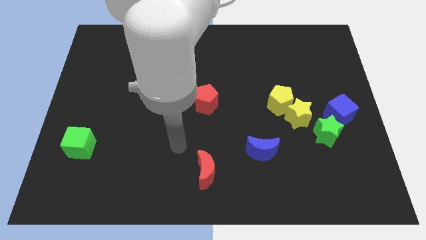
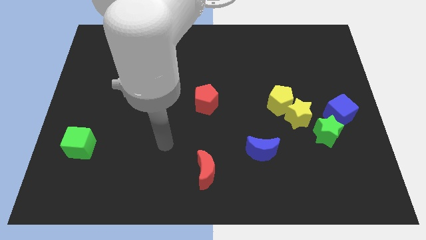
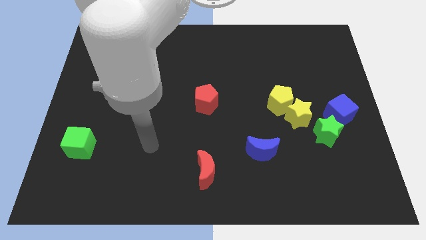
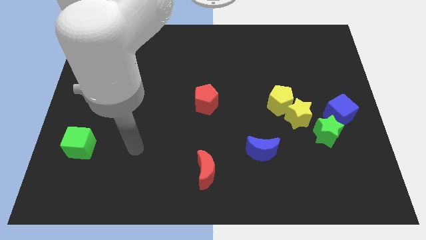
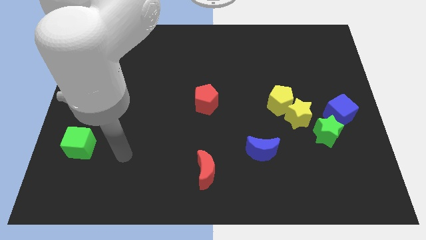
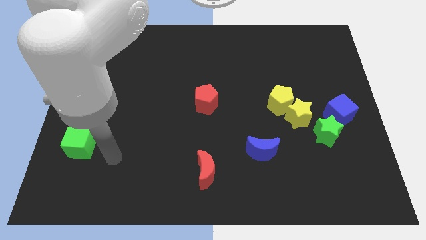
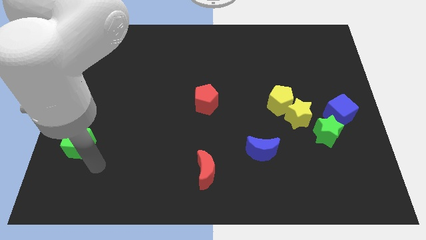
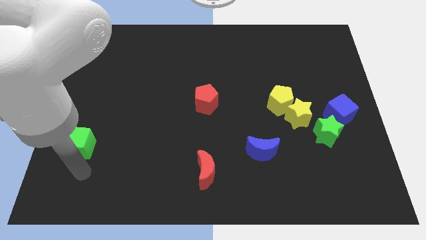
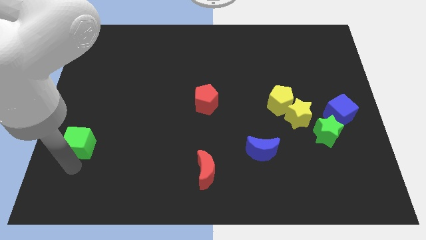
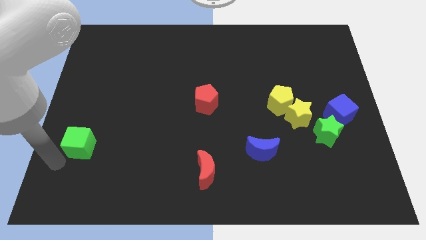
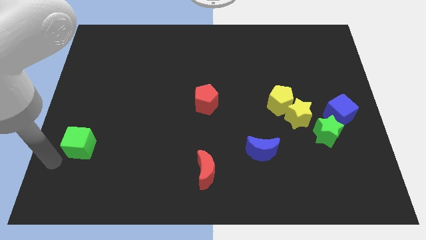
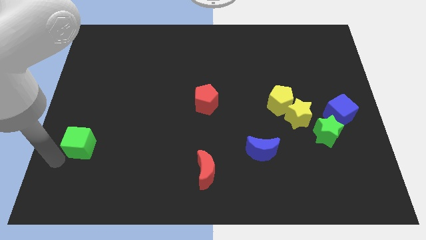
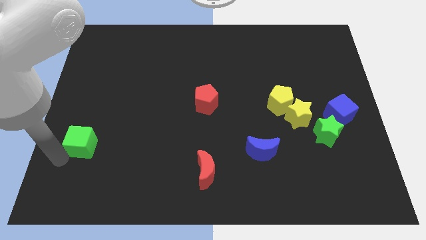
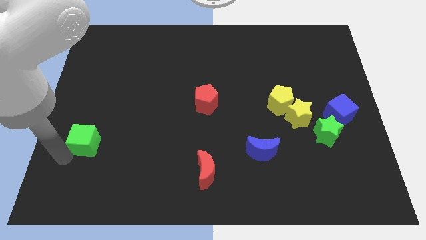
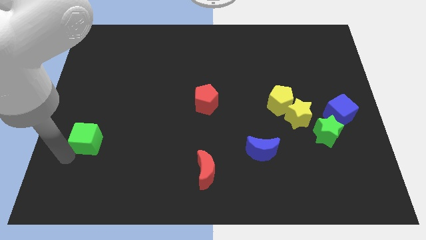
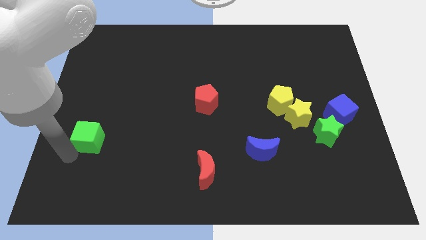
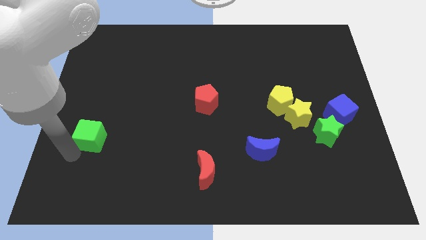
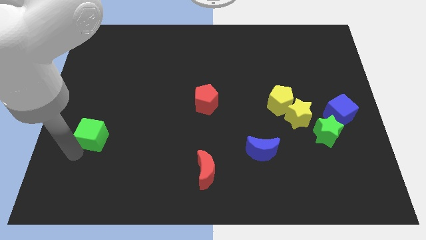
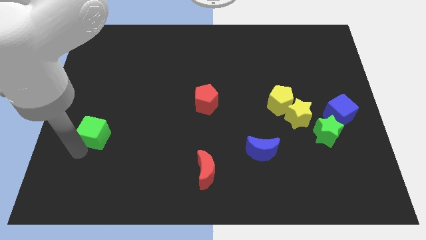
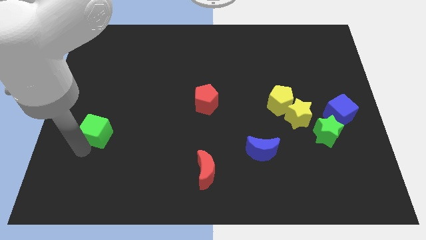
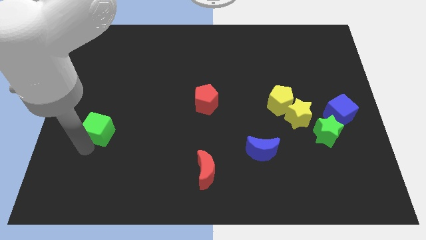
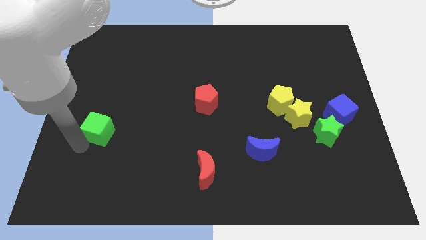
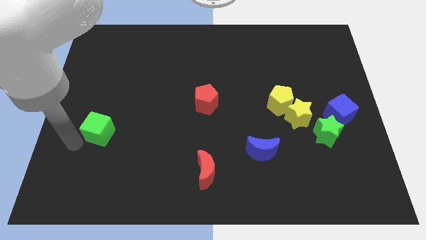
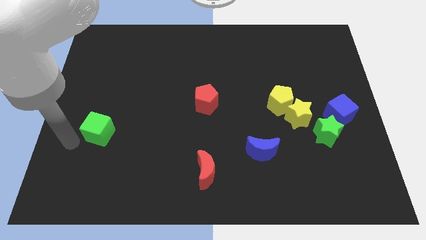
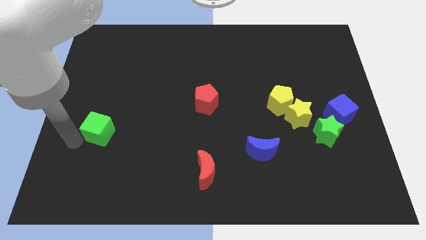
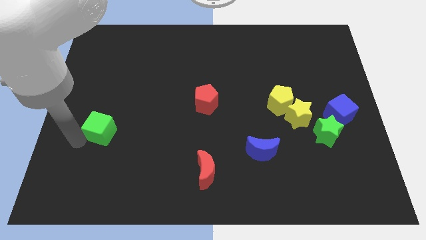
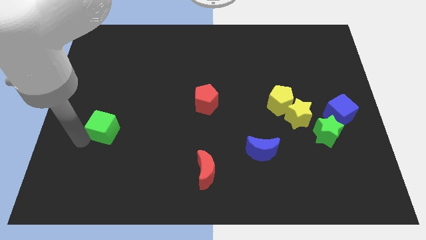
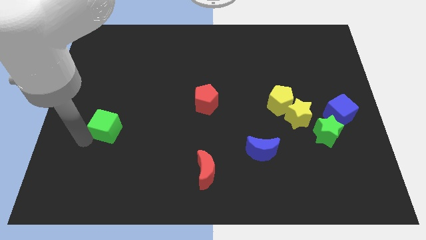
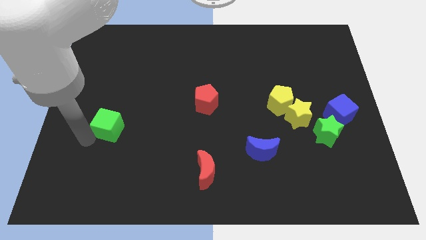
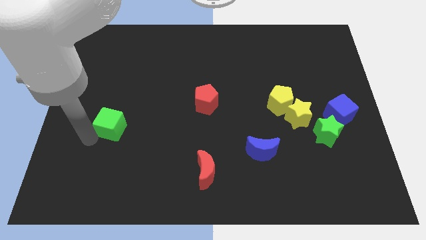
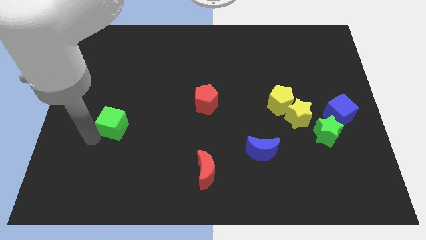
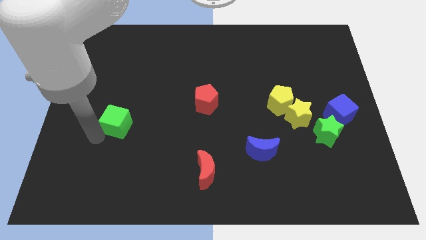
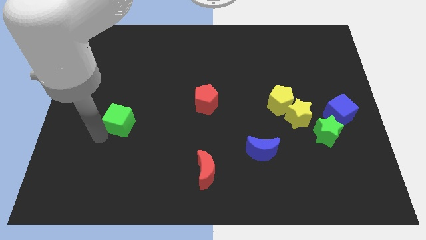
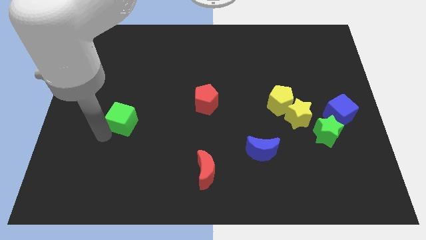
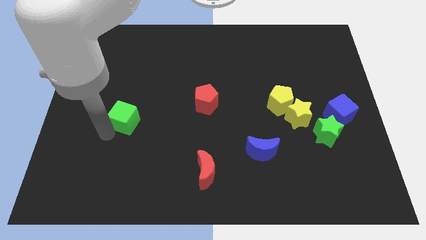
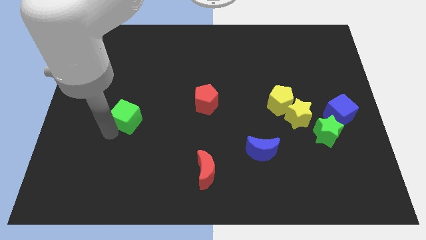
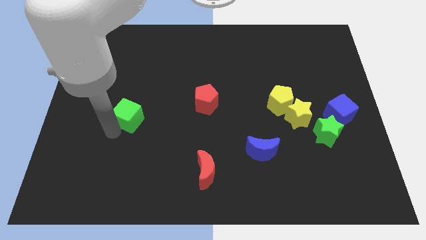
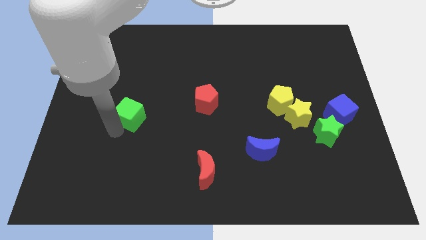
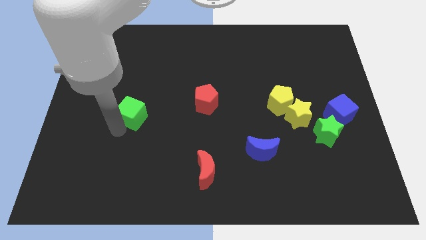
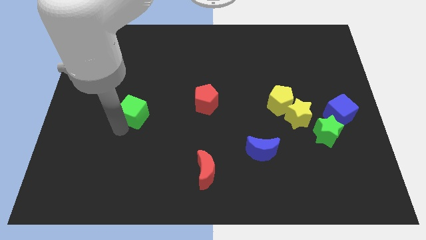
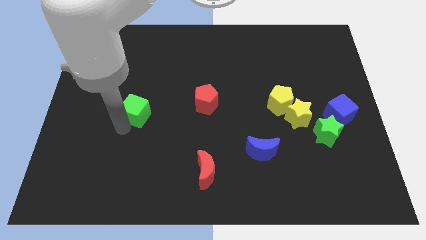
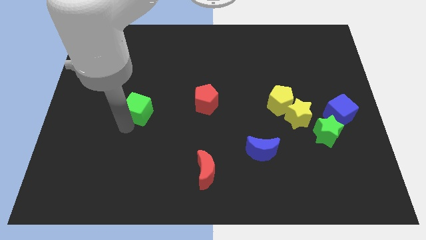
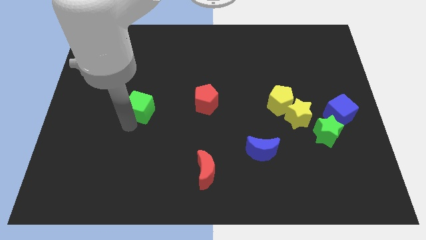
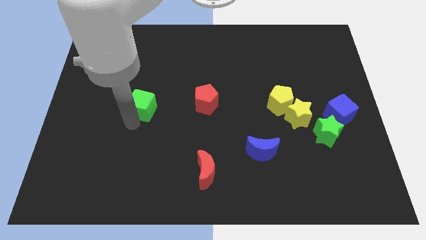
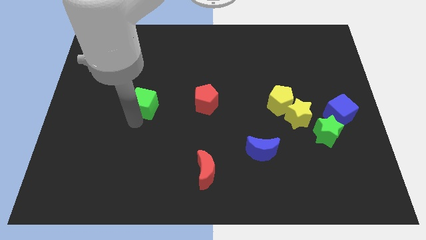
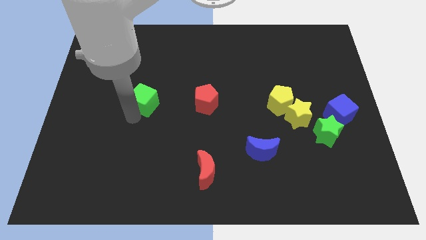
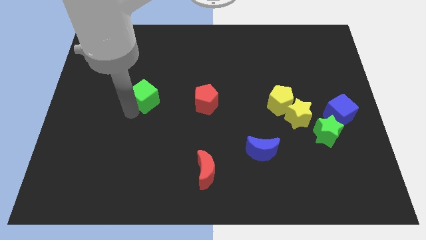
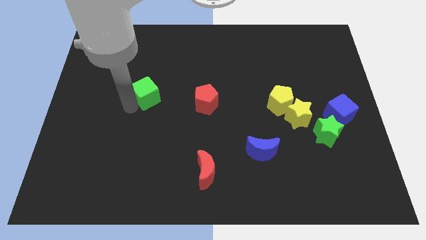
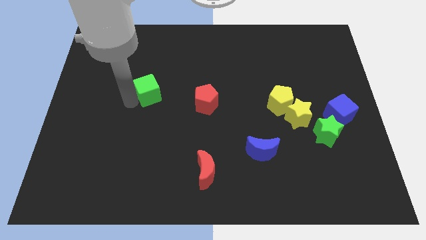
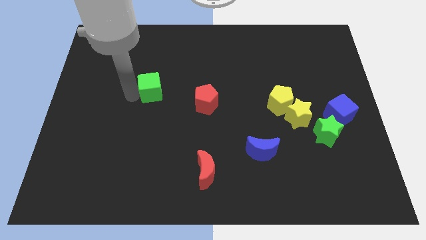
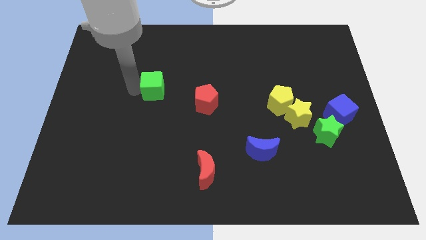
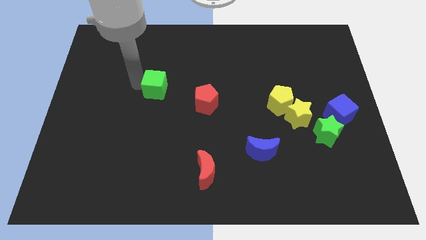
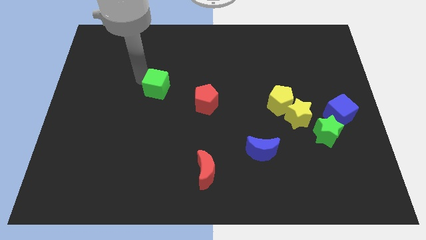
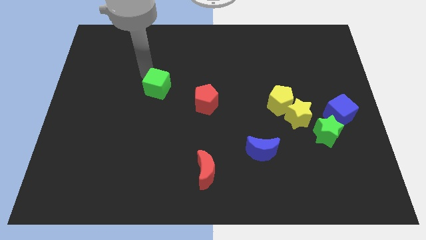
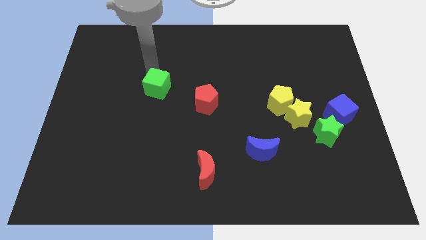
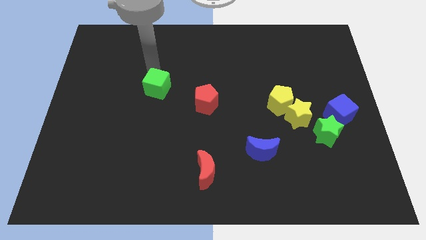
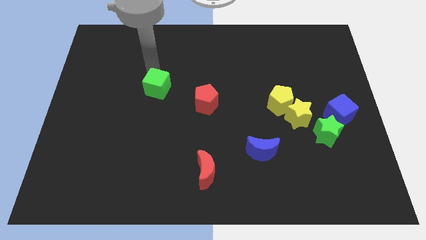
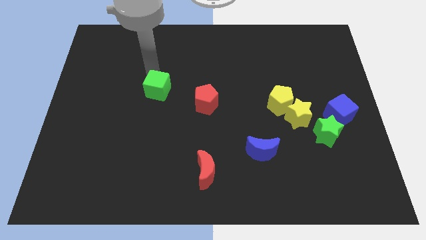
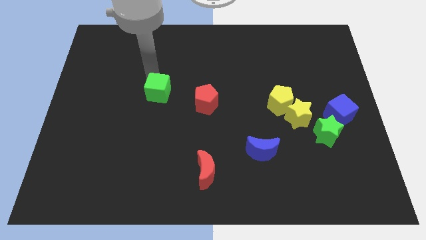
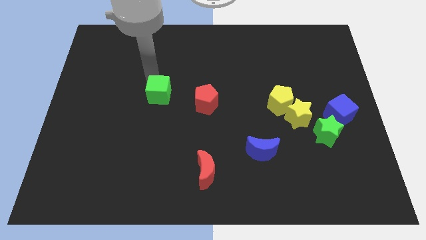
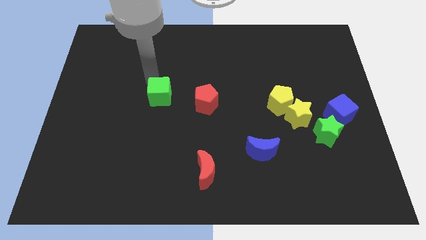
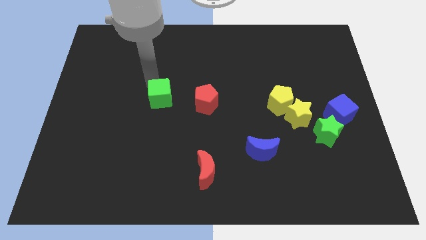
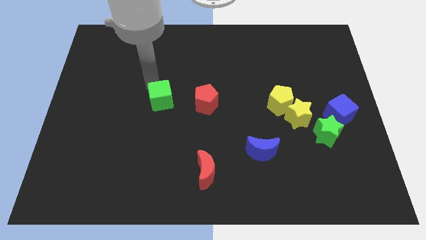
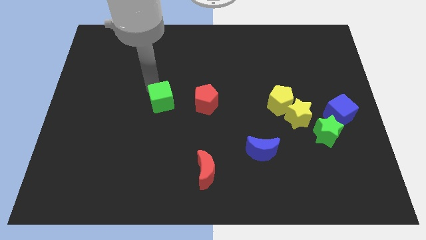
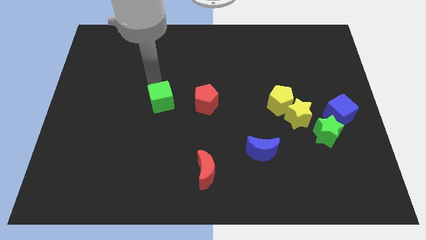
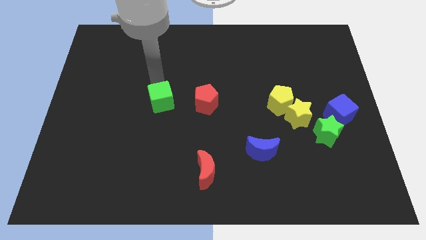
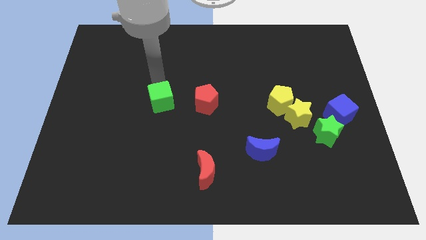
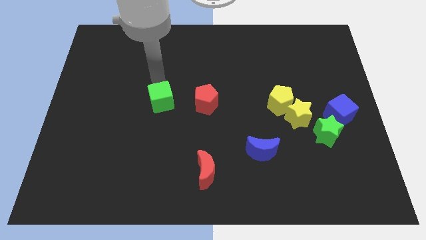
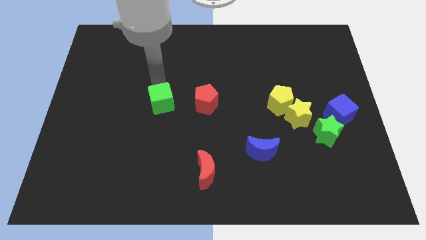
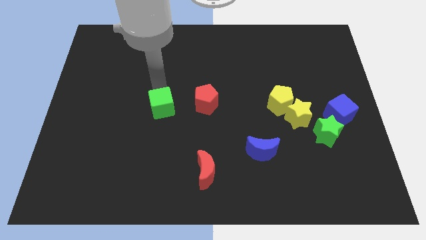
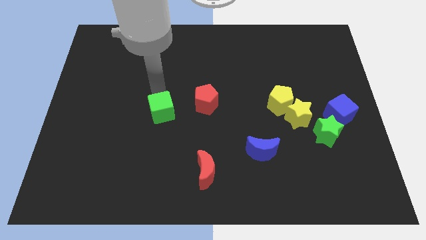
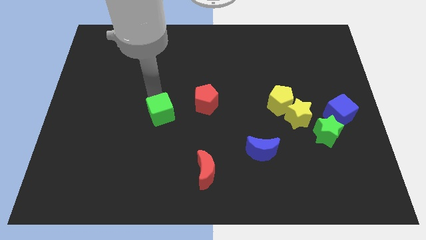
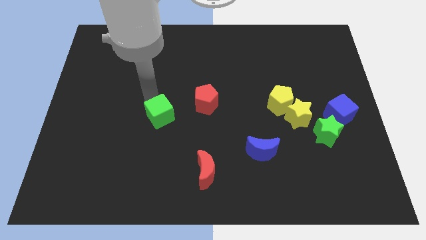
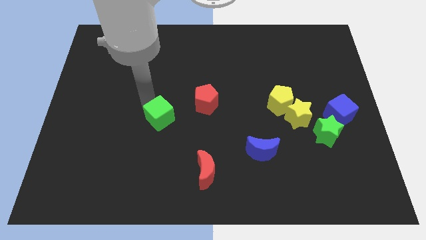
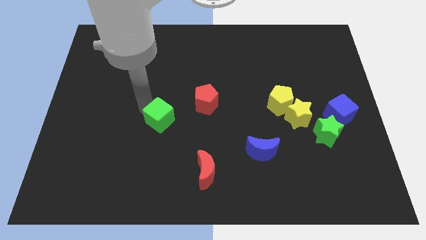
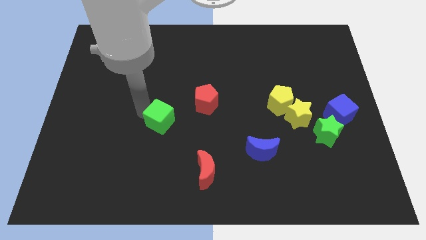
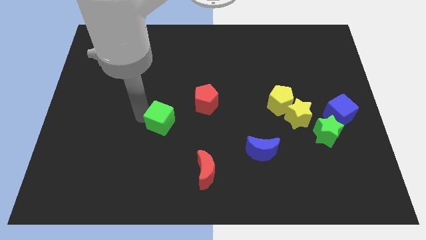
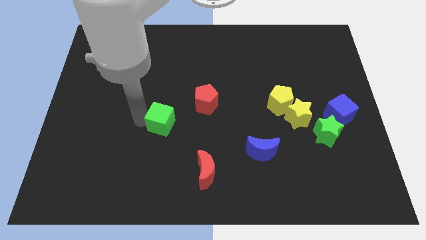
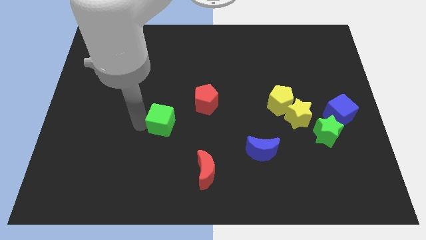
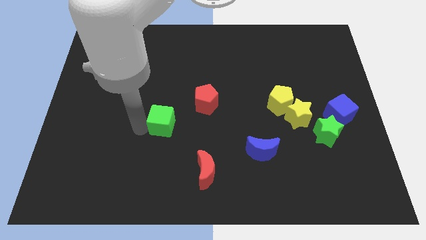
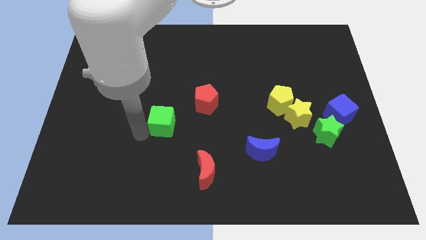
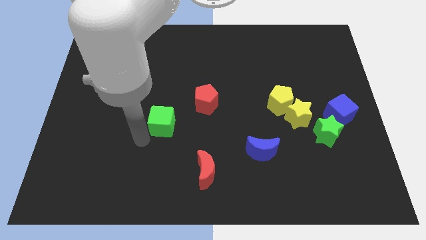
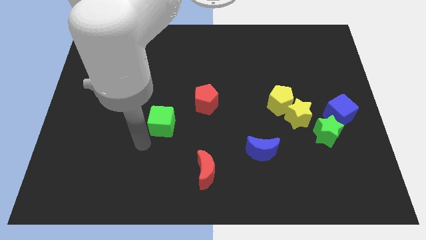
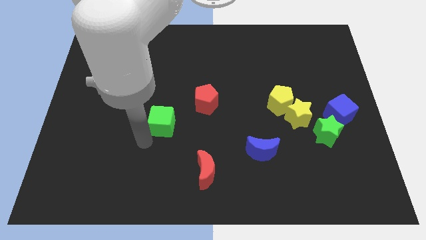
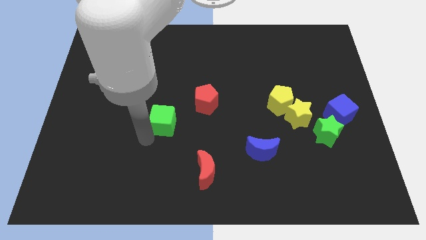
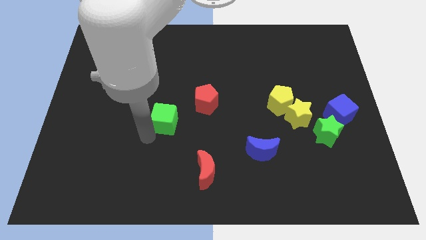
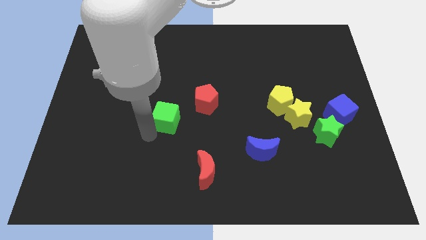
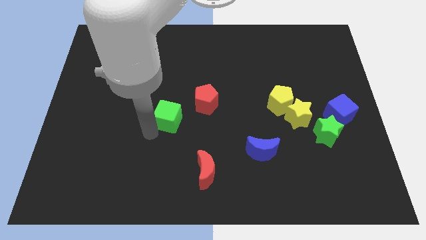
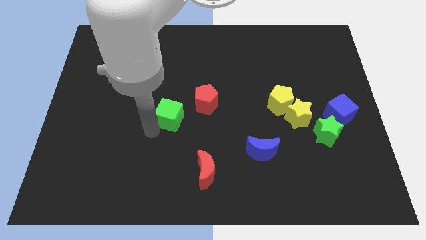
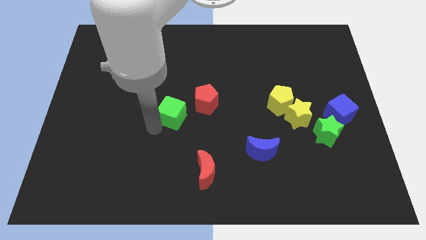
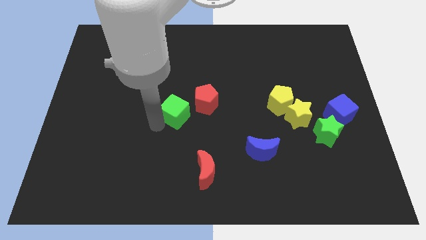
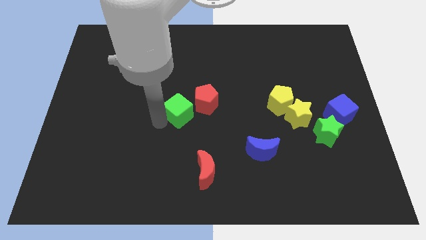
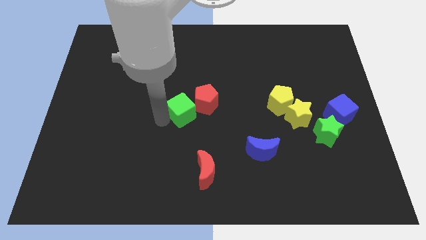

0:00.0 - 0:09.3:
put the green cube close to the red pentagon
